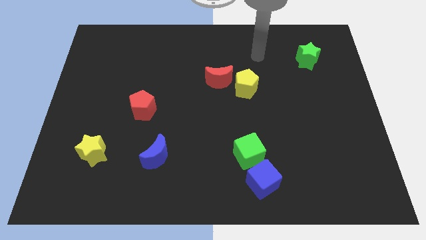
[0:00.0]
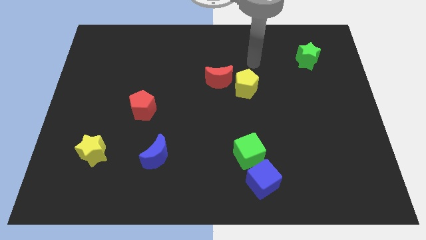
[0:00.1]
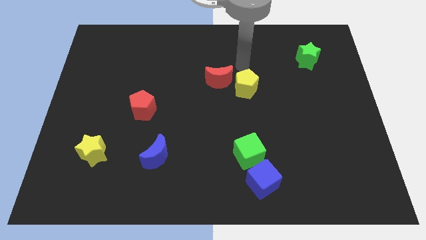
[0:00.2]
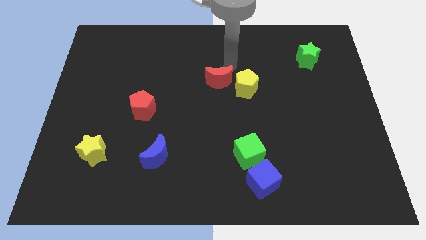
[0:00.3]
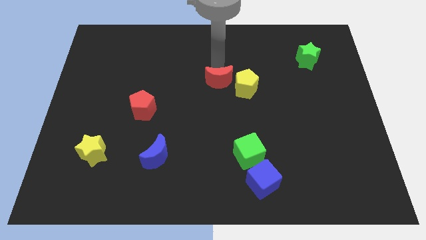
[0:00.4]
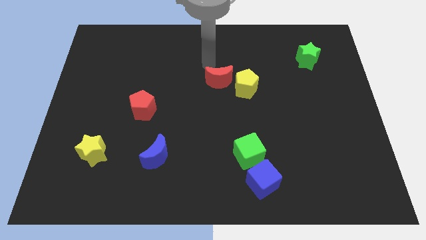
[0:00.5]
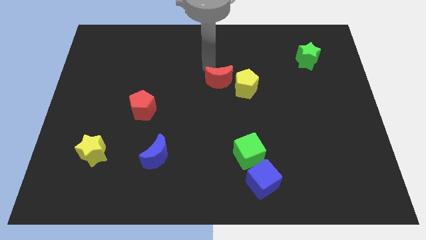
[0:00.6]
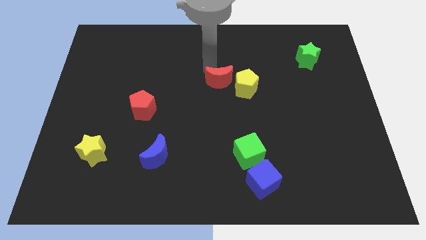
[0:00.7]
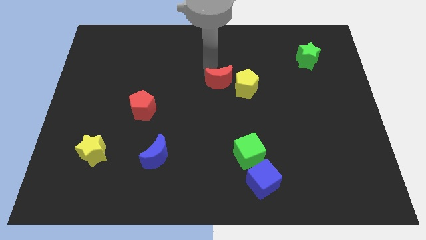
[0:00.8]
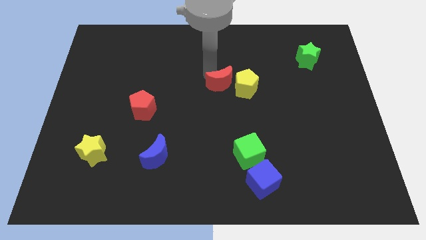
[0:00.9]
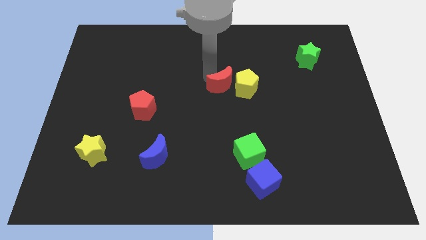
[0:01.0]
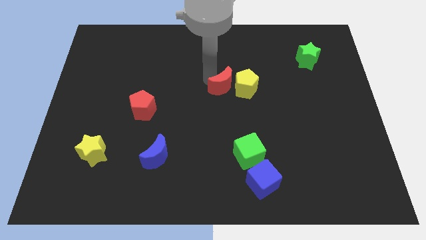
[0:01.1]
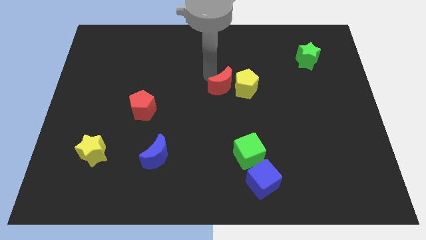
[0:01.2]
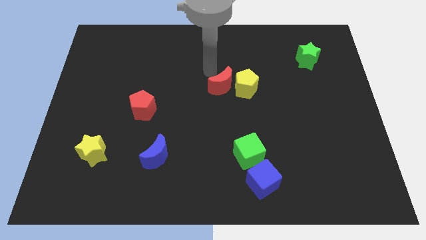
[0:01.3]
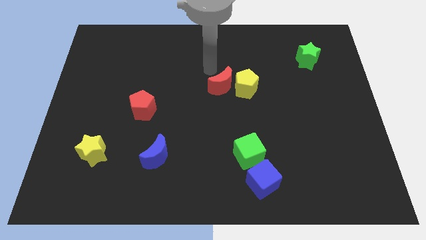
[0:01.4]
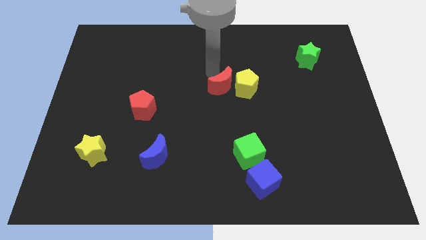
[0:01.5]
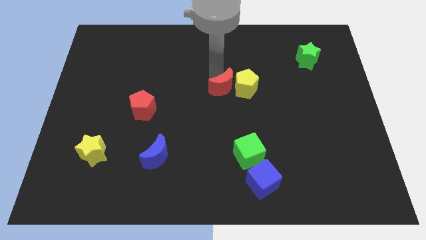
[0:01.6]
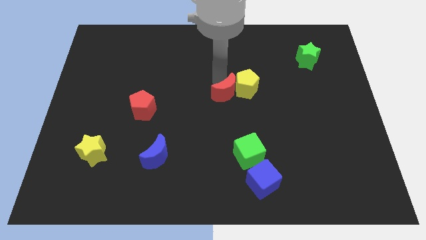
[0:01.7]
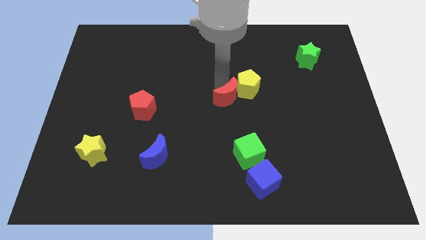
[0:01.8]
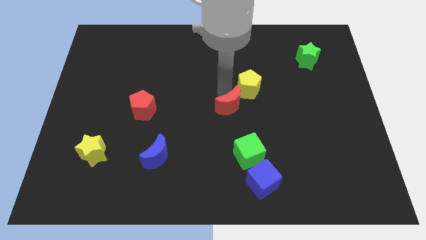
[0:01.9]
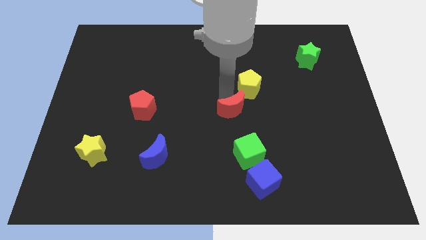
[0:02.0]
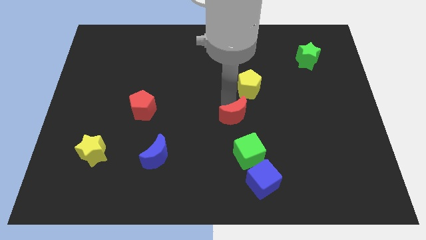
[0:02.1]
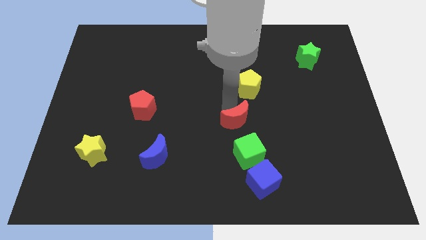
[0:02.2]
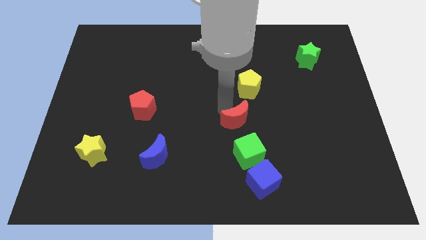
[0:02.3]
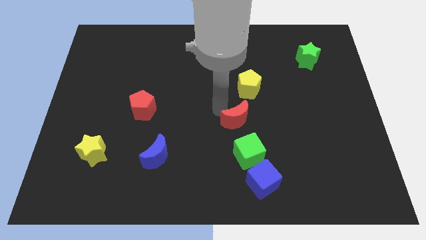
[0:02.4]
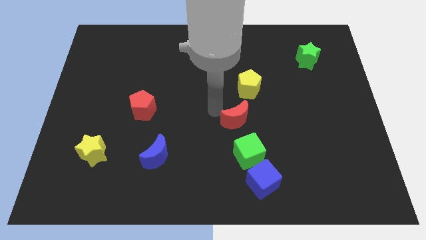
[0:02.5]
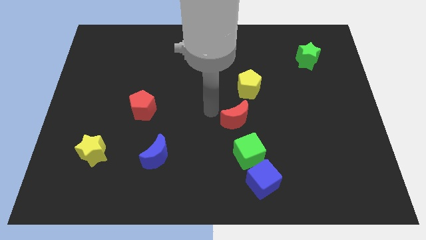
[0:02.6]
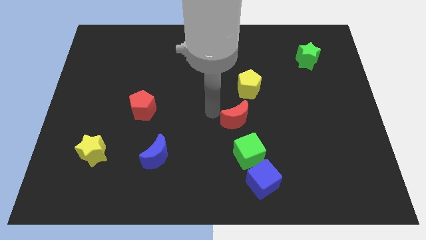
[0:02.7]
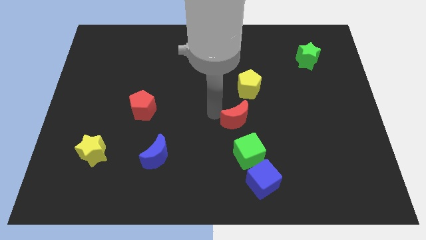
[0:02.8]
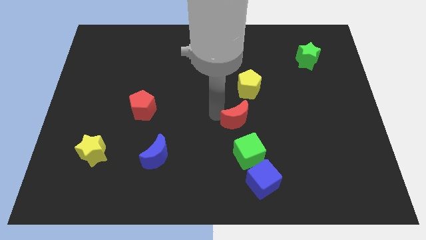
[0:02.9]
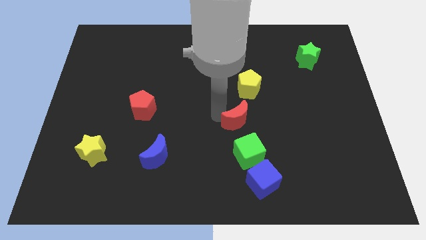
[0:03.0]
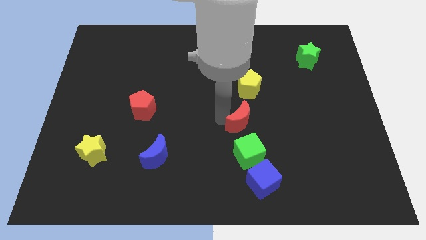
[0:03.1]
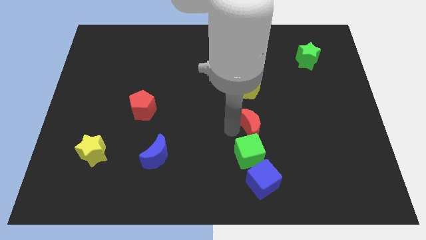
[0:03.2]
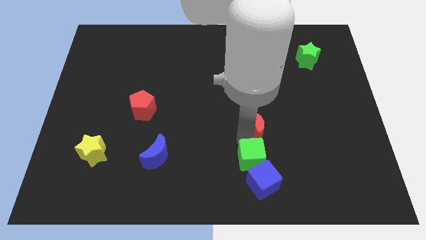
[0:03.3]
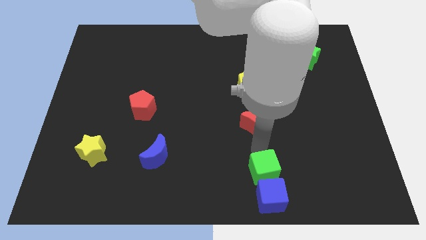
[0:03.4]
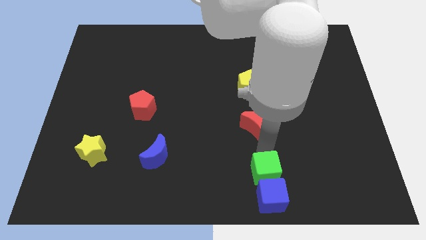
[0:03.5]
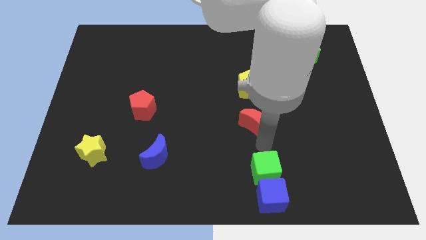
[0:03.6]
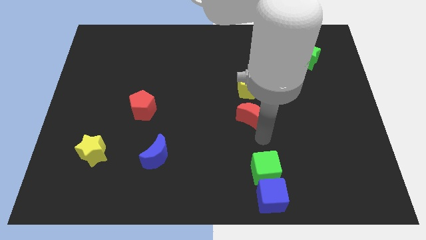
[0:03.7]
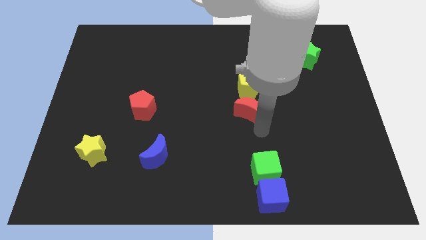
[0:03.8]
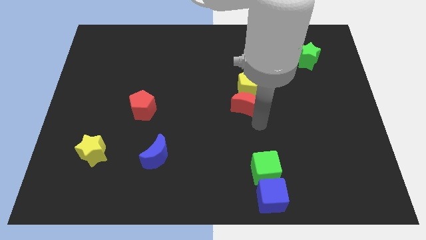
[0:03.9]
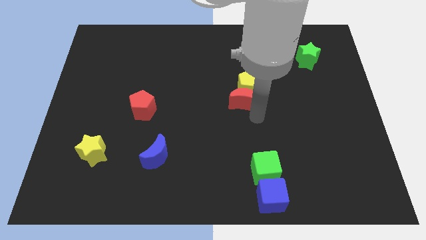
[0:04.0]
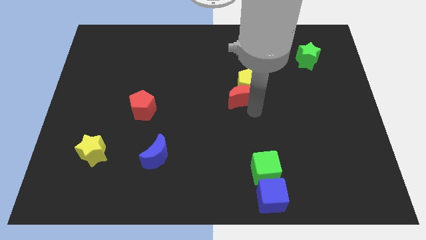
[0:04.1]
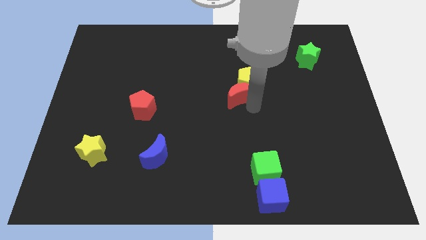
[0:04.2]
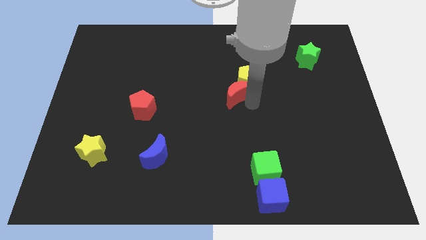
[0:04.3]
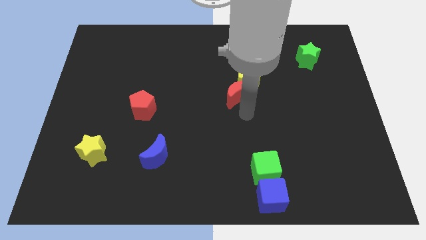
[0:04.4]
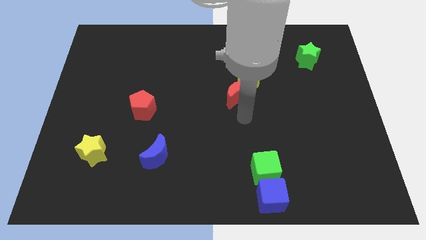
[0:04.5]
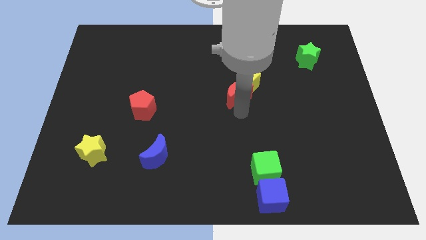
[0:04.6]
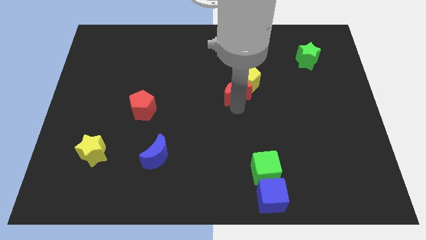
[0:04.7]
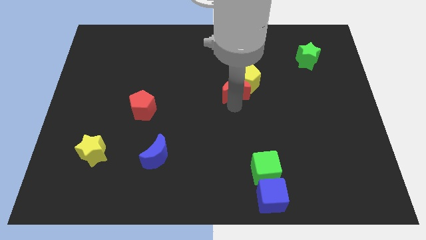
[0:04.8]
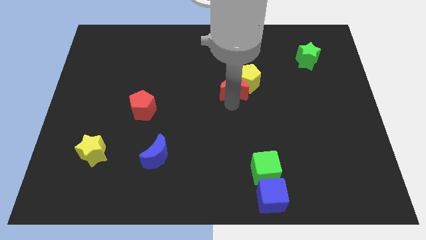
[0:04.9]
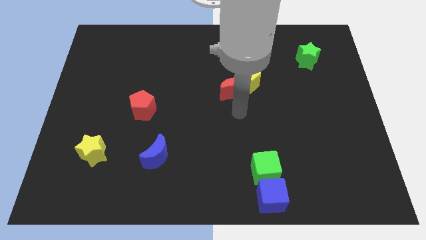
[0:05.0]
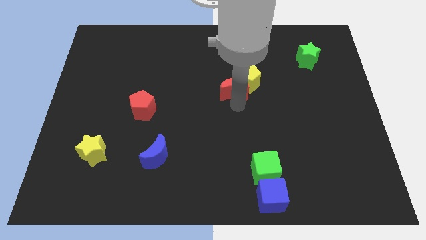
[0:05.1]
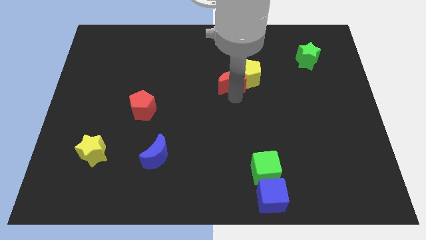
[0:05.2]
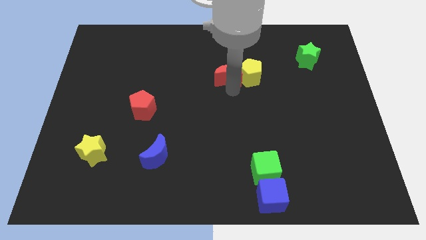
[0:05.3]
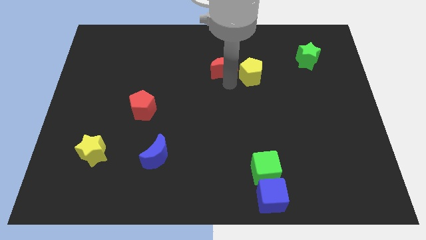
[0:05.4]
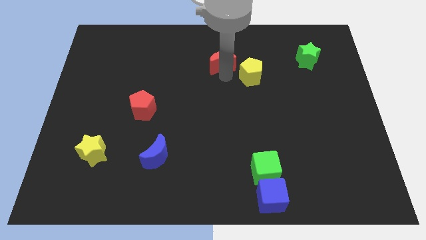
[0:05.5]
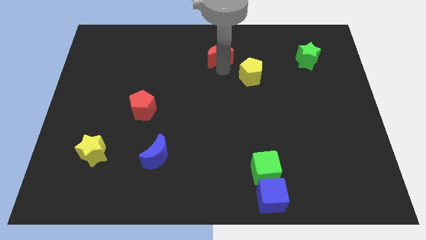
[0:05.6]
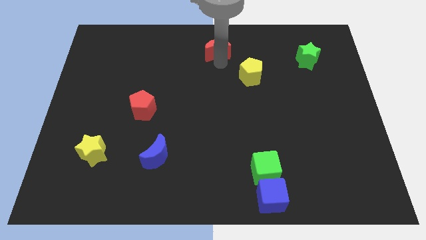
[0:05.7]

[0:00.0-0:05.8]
put the red moon to the top side

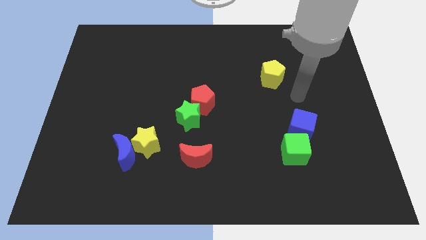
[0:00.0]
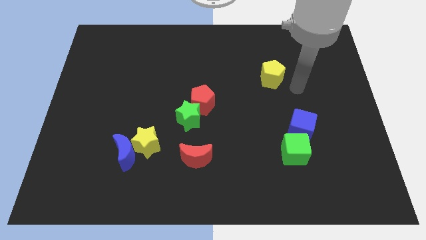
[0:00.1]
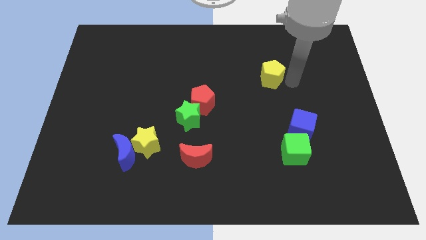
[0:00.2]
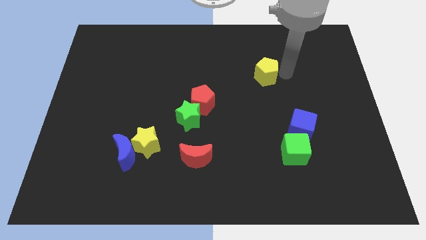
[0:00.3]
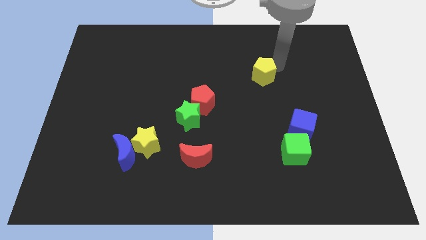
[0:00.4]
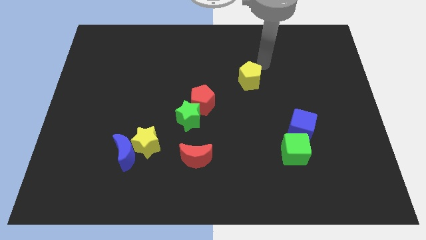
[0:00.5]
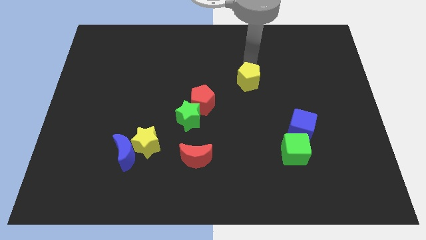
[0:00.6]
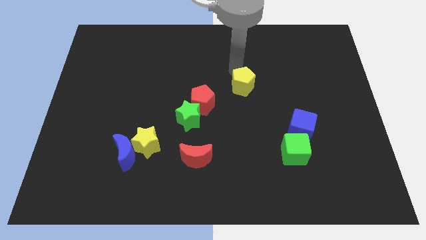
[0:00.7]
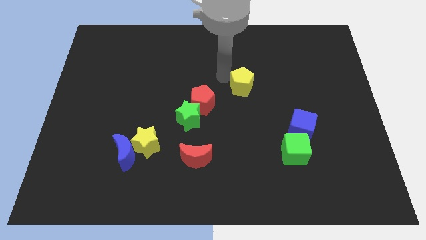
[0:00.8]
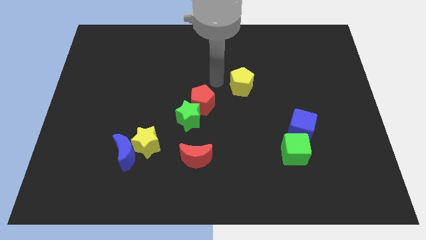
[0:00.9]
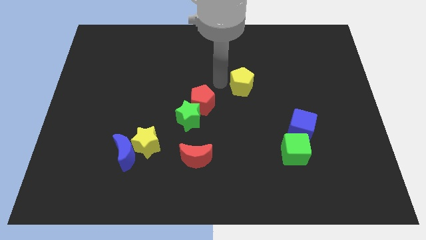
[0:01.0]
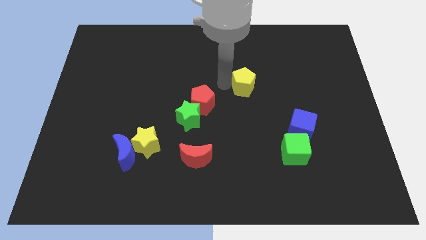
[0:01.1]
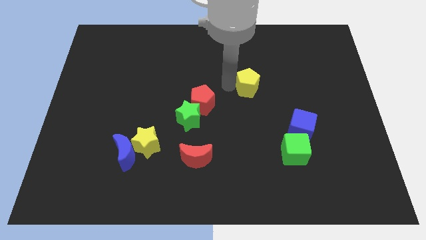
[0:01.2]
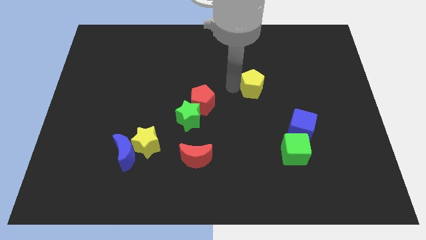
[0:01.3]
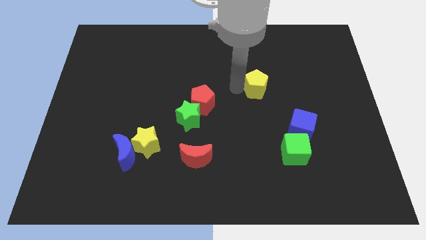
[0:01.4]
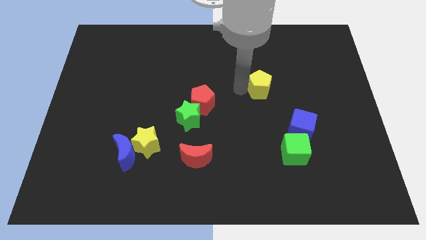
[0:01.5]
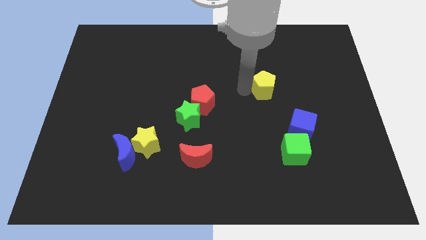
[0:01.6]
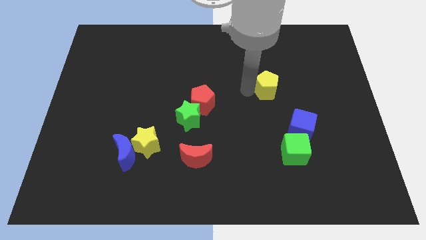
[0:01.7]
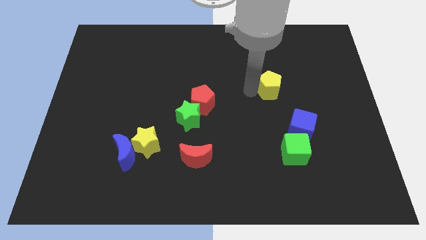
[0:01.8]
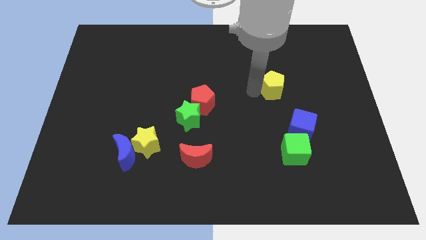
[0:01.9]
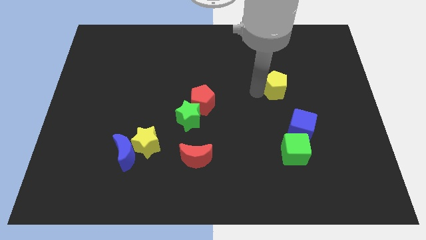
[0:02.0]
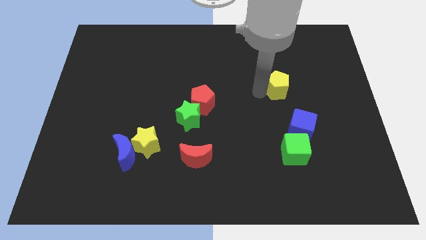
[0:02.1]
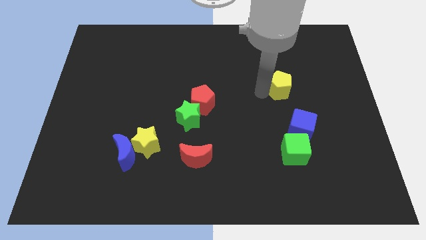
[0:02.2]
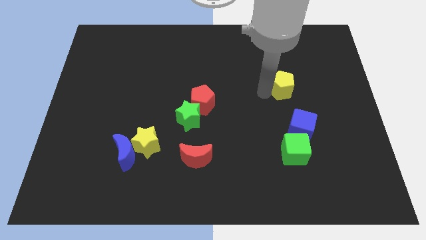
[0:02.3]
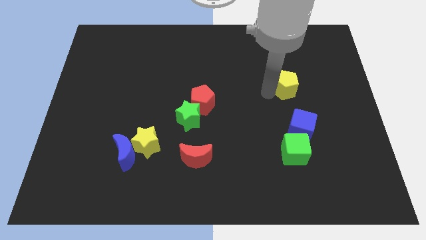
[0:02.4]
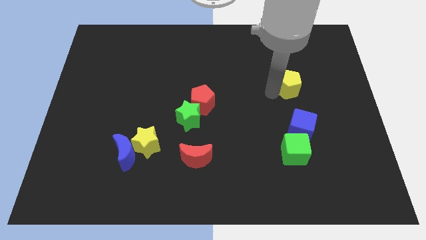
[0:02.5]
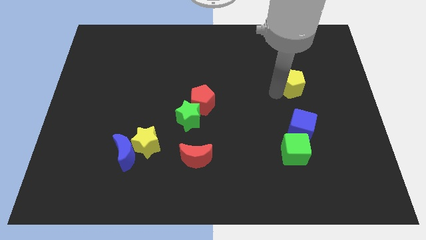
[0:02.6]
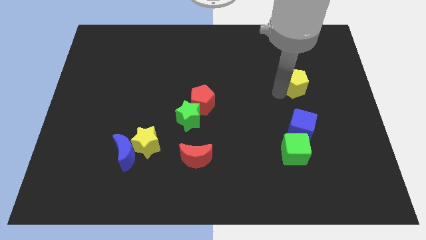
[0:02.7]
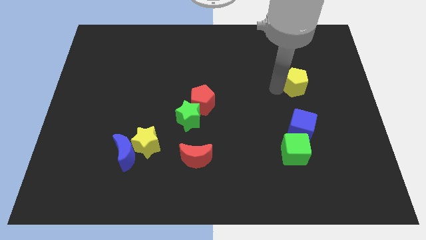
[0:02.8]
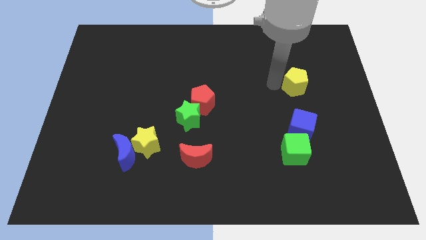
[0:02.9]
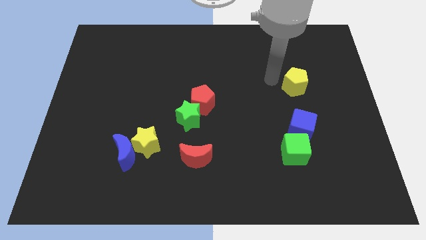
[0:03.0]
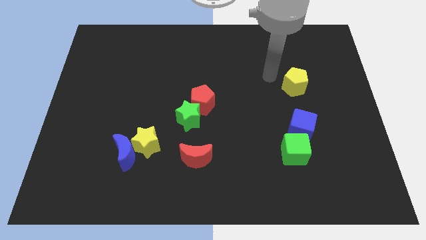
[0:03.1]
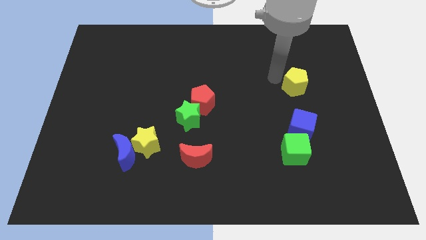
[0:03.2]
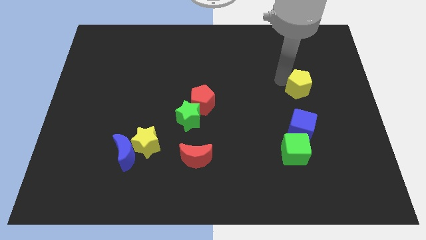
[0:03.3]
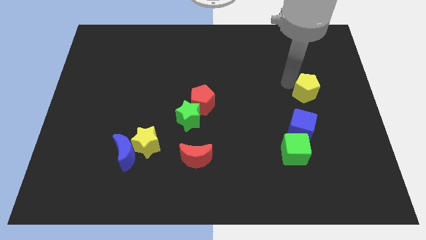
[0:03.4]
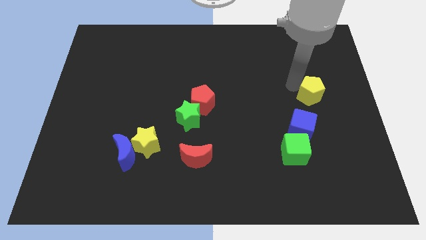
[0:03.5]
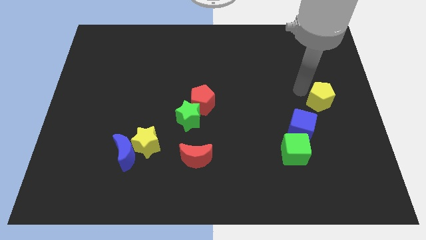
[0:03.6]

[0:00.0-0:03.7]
slide the yellow pentagon to the right side of the board
